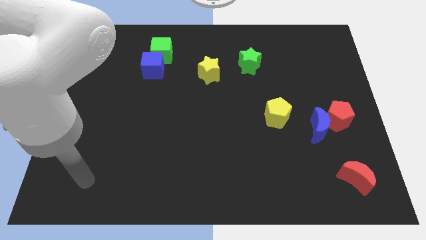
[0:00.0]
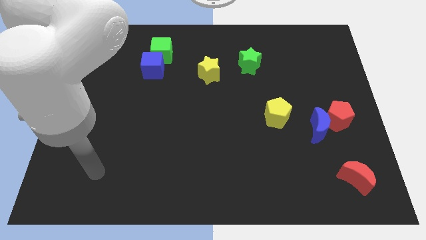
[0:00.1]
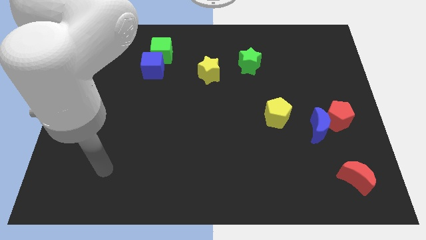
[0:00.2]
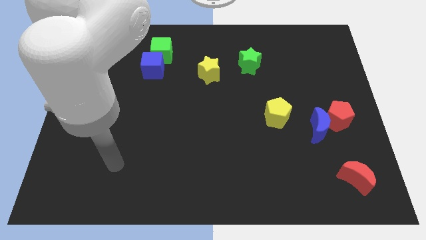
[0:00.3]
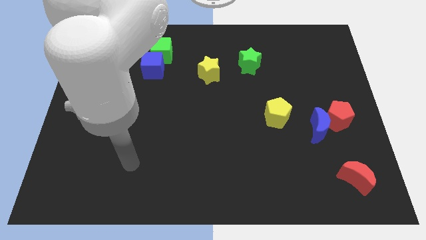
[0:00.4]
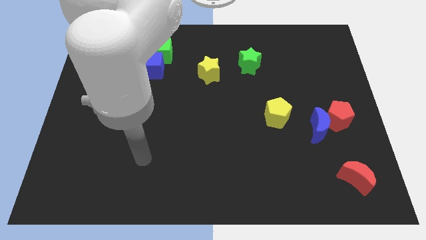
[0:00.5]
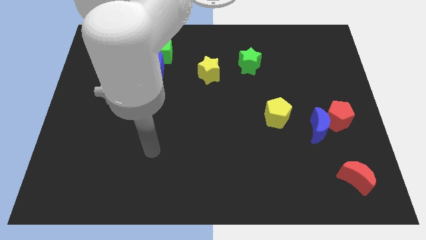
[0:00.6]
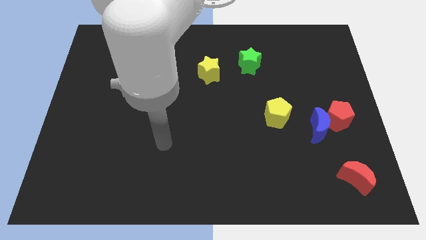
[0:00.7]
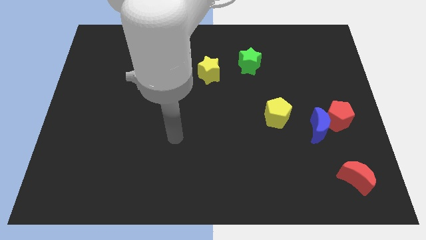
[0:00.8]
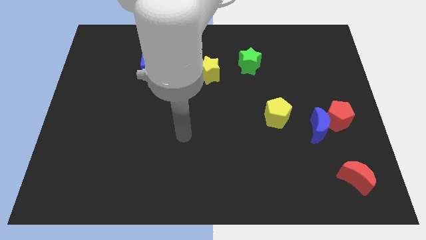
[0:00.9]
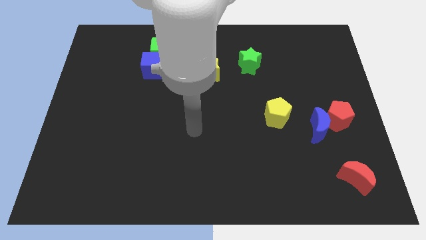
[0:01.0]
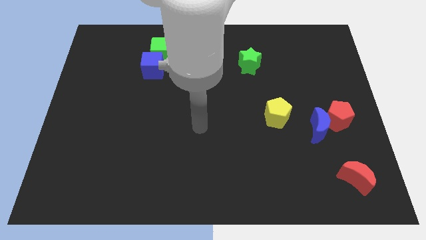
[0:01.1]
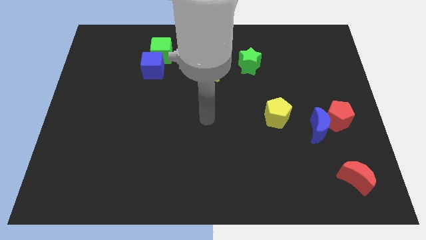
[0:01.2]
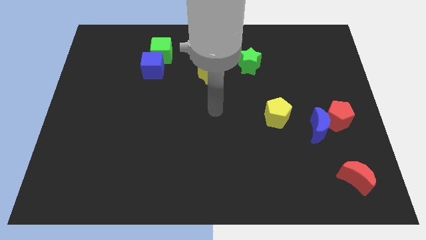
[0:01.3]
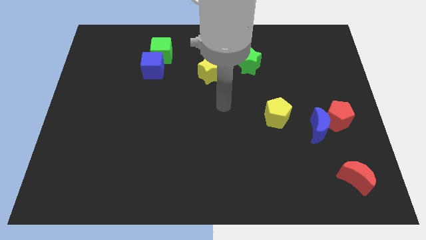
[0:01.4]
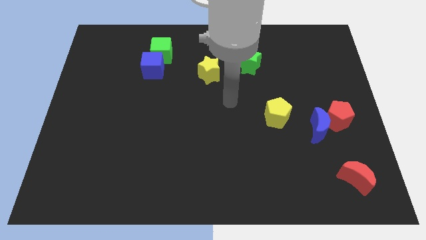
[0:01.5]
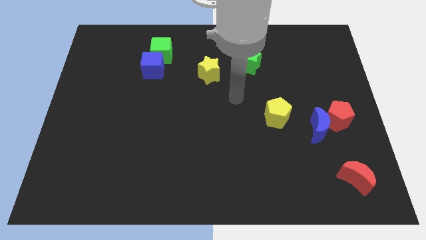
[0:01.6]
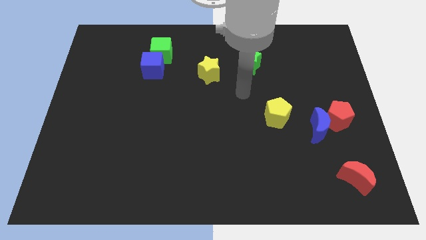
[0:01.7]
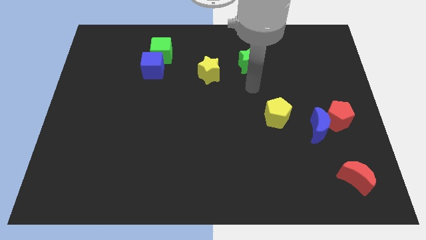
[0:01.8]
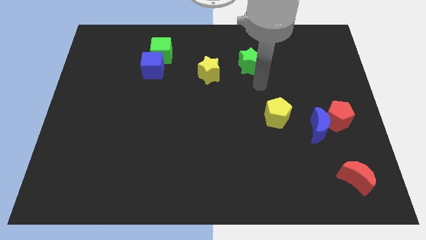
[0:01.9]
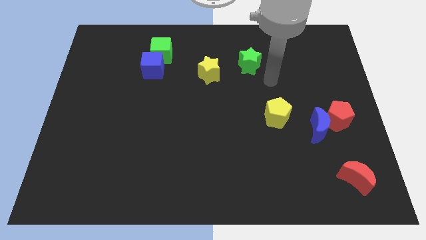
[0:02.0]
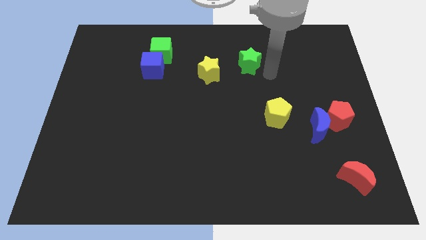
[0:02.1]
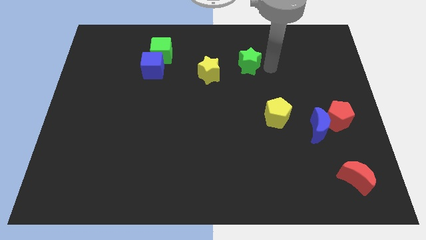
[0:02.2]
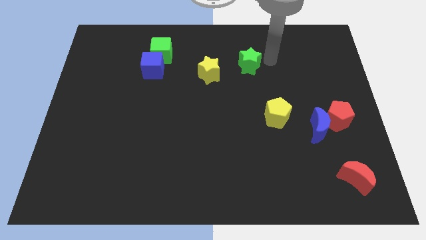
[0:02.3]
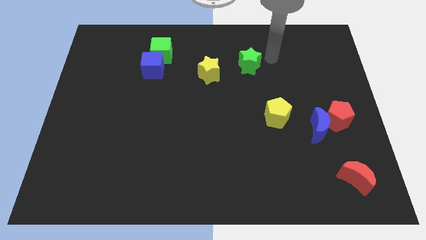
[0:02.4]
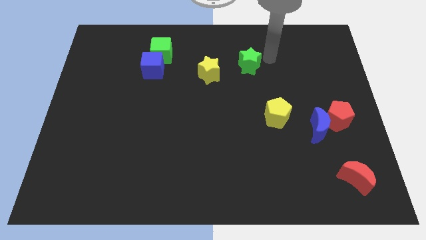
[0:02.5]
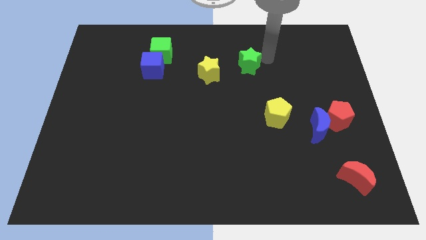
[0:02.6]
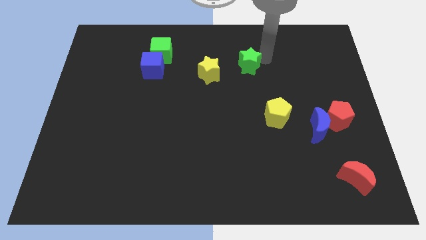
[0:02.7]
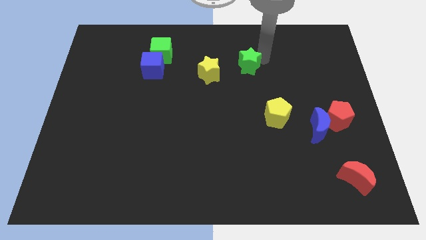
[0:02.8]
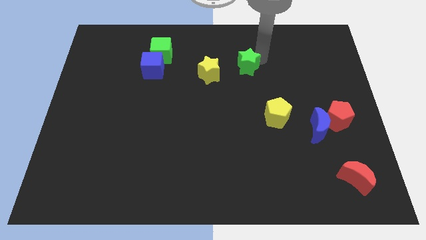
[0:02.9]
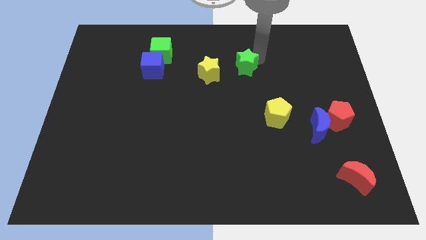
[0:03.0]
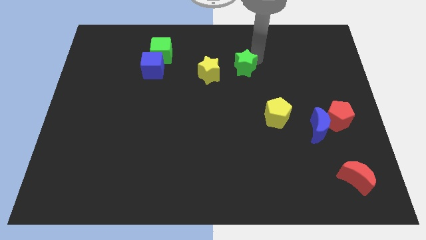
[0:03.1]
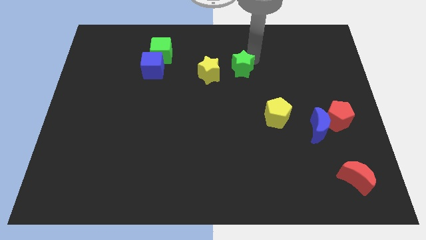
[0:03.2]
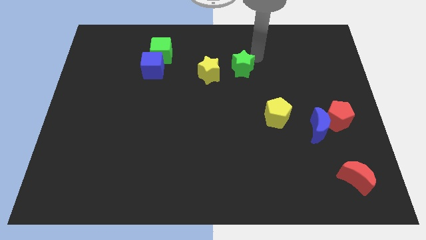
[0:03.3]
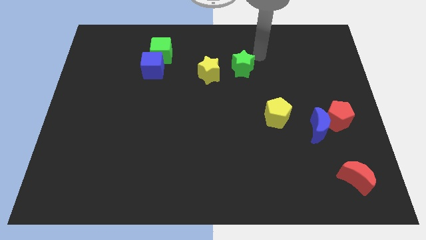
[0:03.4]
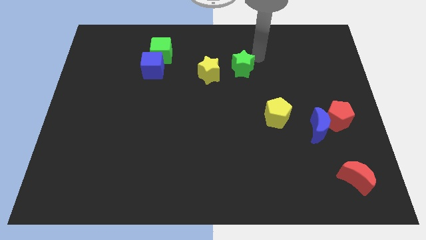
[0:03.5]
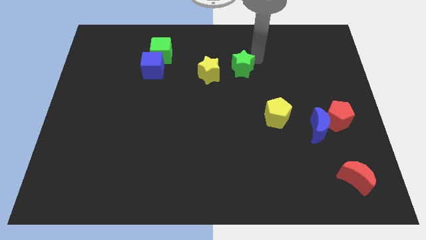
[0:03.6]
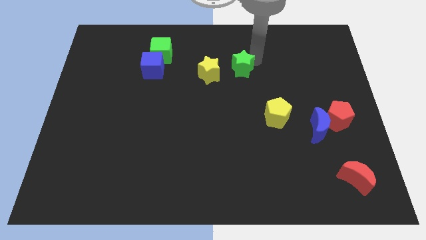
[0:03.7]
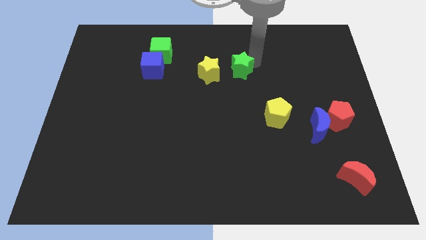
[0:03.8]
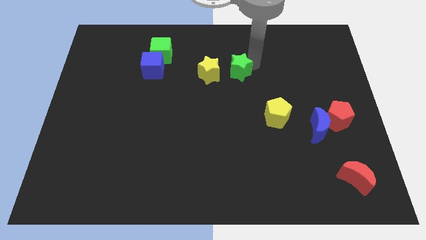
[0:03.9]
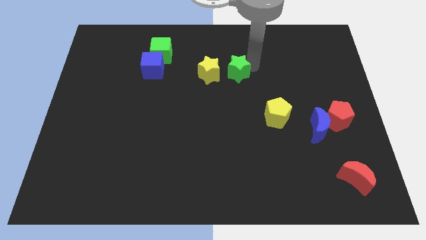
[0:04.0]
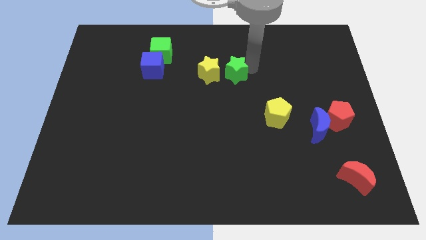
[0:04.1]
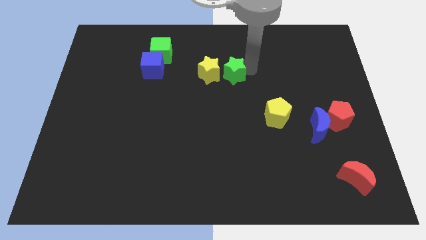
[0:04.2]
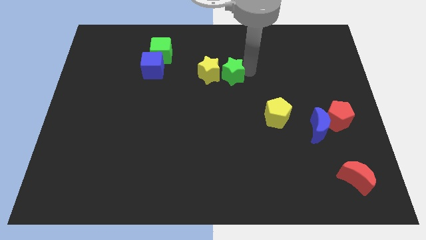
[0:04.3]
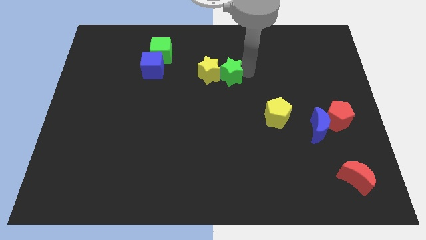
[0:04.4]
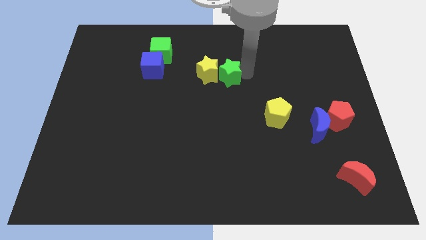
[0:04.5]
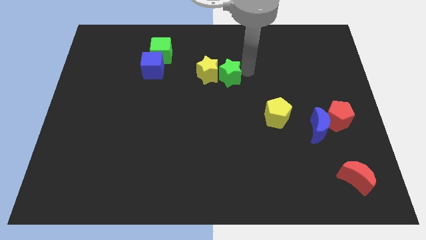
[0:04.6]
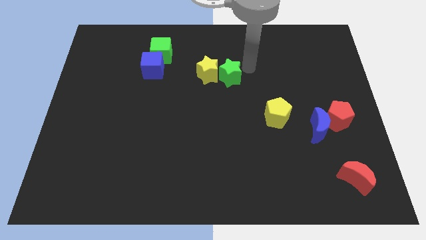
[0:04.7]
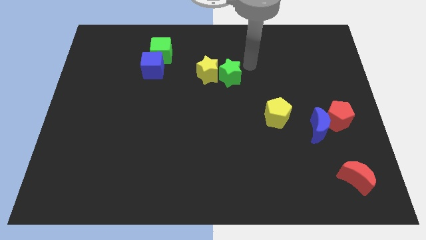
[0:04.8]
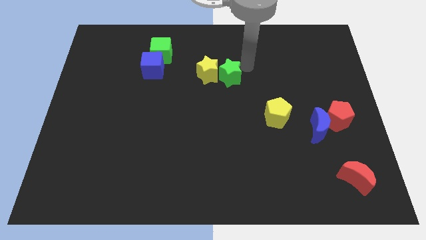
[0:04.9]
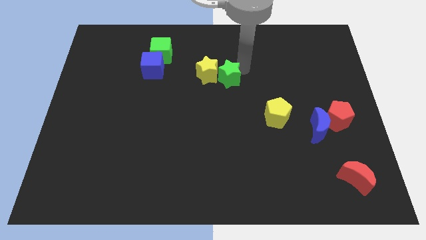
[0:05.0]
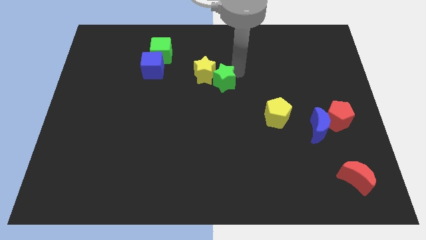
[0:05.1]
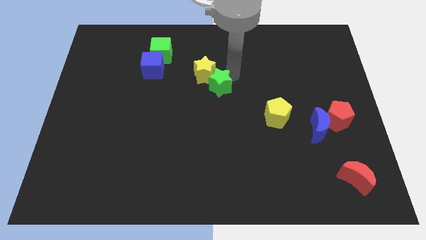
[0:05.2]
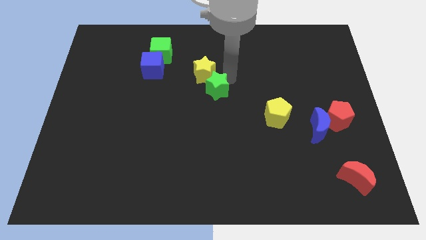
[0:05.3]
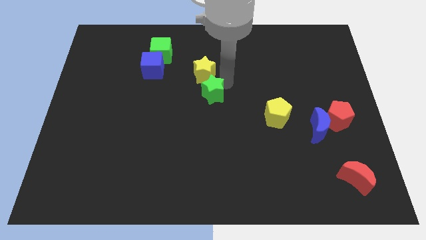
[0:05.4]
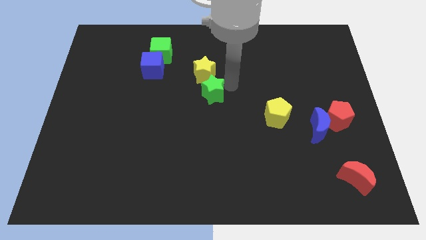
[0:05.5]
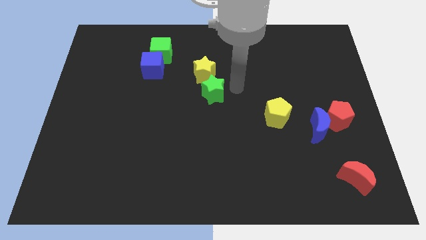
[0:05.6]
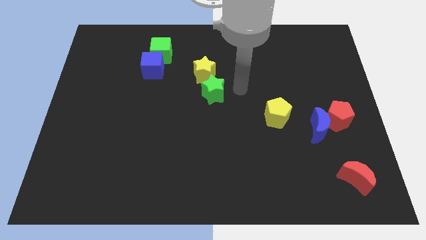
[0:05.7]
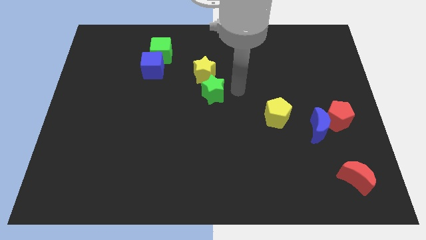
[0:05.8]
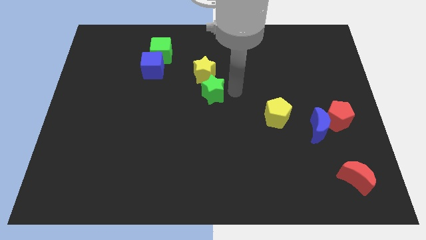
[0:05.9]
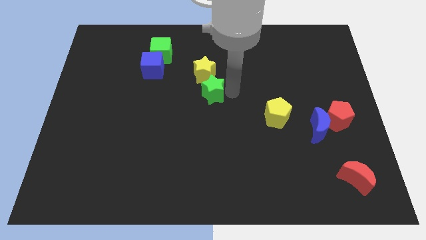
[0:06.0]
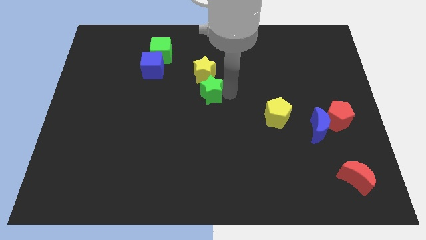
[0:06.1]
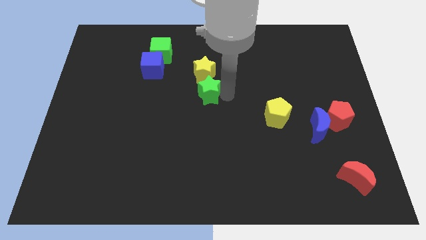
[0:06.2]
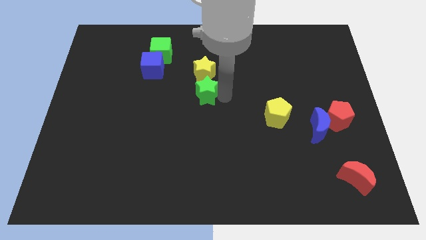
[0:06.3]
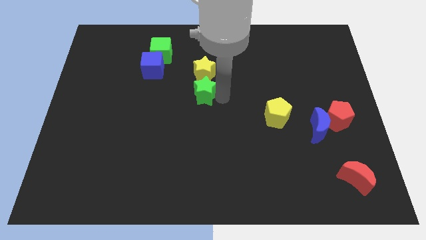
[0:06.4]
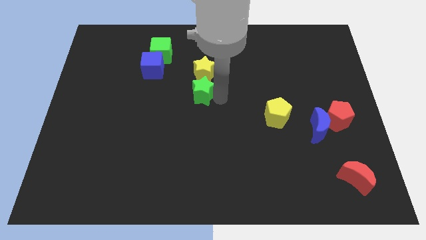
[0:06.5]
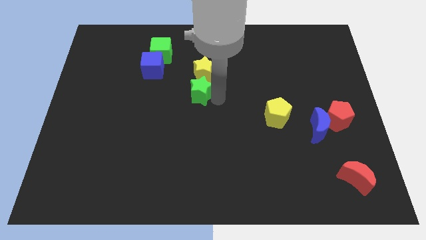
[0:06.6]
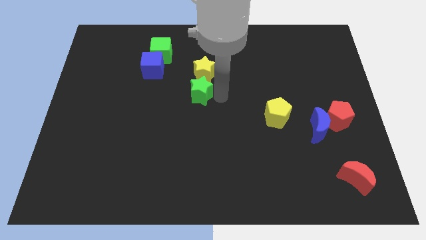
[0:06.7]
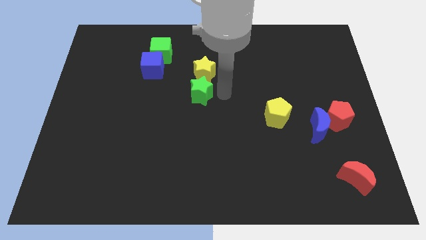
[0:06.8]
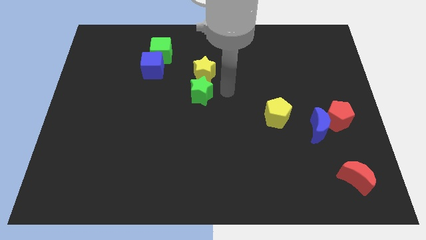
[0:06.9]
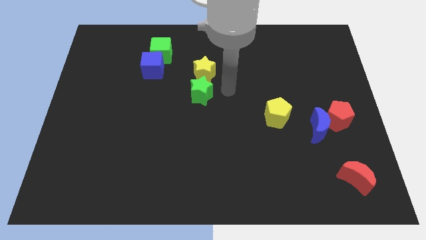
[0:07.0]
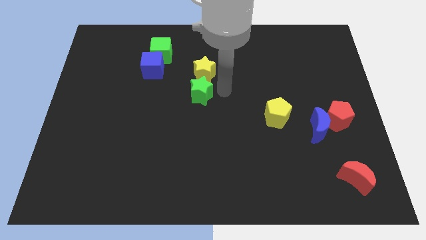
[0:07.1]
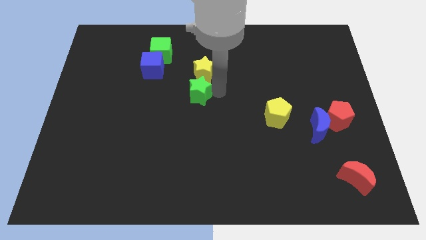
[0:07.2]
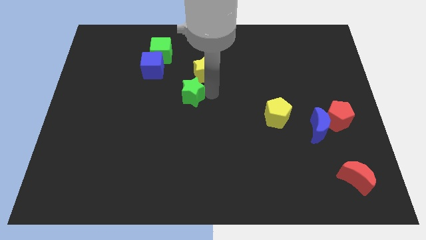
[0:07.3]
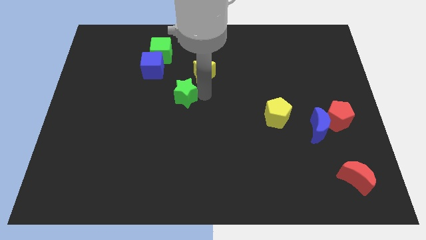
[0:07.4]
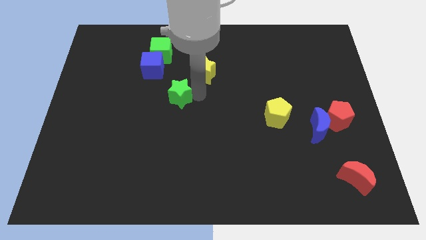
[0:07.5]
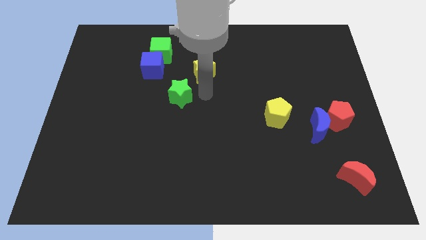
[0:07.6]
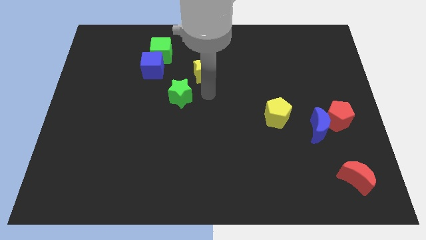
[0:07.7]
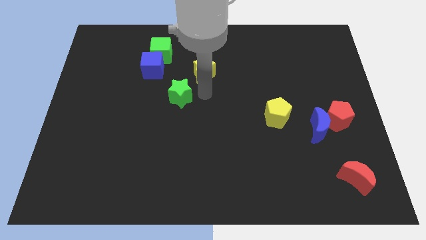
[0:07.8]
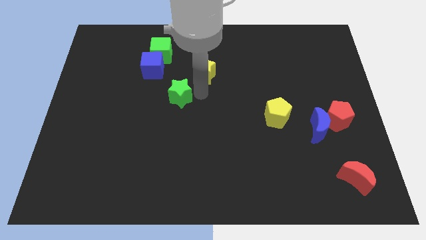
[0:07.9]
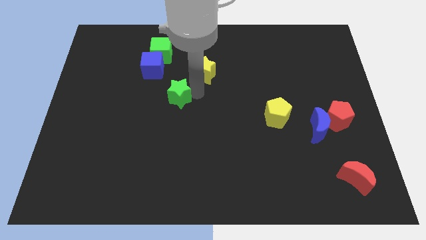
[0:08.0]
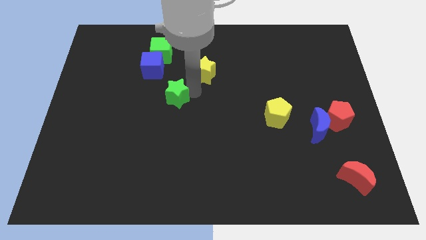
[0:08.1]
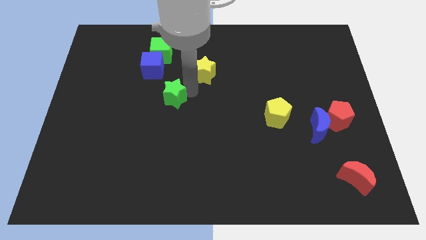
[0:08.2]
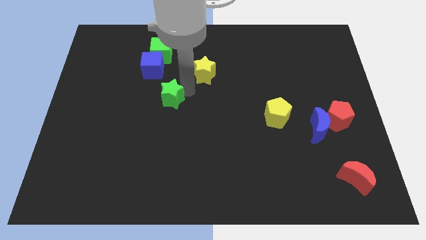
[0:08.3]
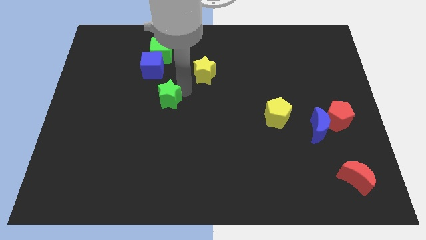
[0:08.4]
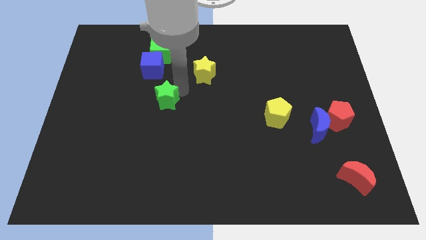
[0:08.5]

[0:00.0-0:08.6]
put the green star below the blue cube
